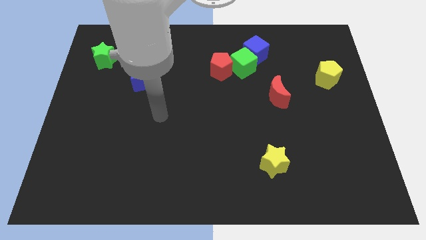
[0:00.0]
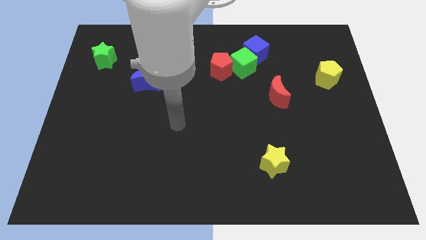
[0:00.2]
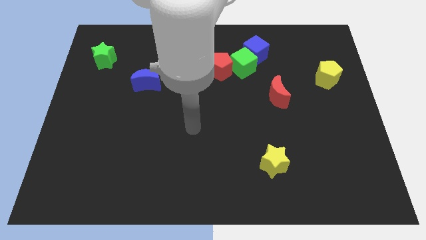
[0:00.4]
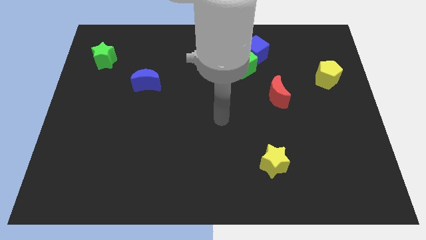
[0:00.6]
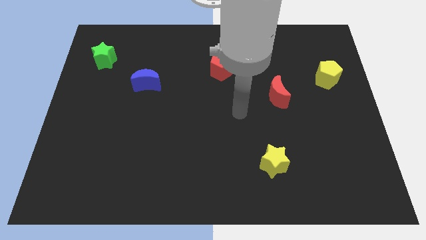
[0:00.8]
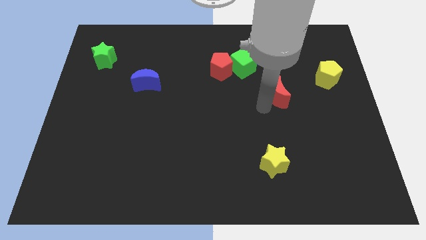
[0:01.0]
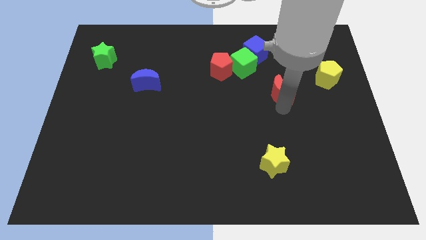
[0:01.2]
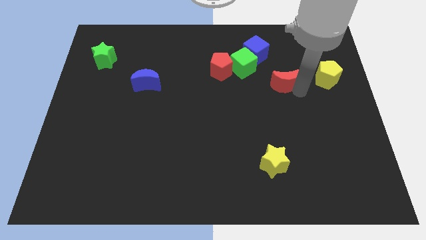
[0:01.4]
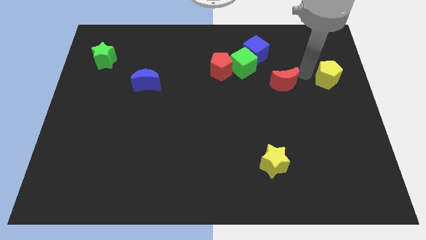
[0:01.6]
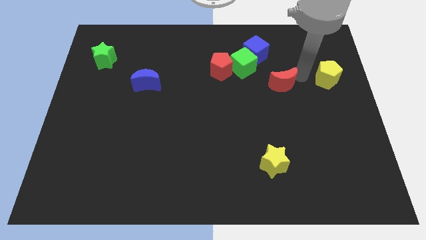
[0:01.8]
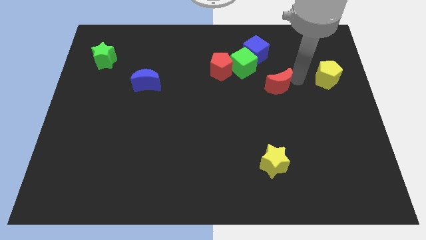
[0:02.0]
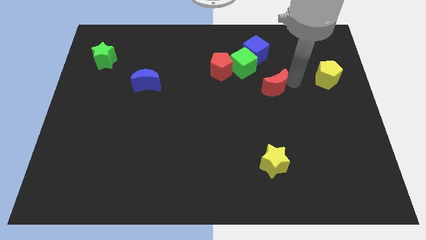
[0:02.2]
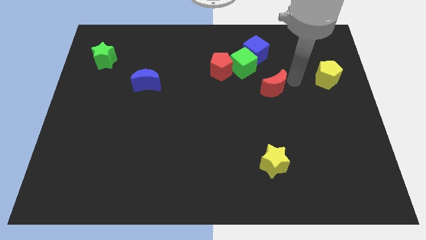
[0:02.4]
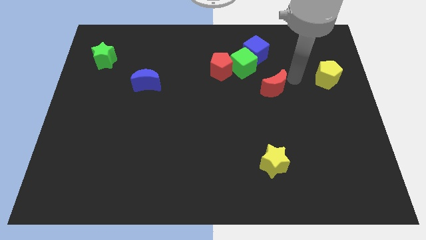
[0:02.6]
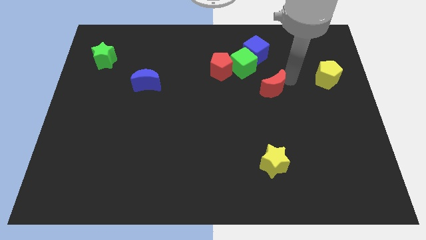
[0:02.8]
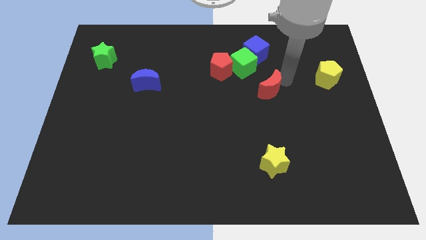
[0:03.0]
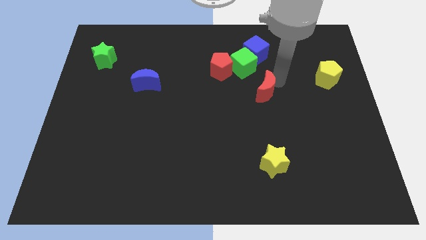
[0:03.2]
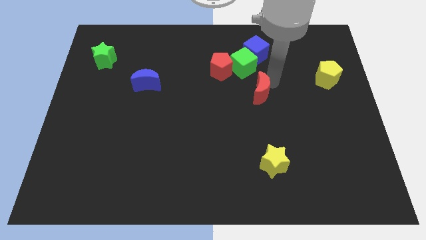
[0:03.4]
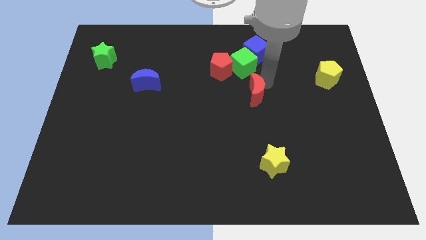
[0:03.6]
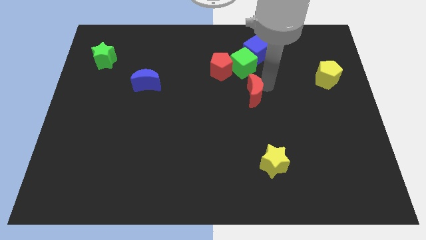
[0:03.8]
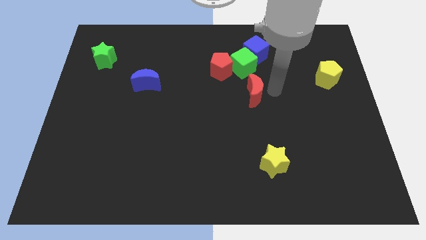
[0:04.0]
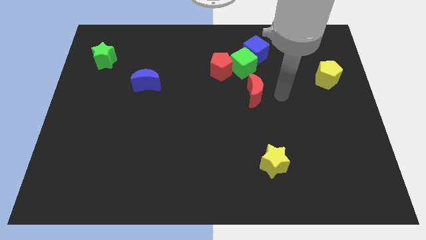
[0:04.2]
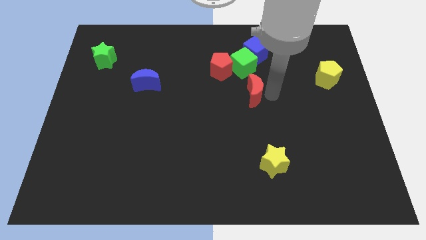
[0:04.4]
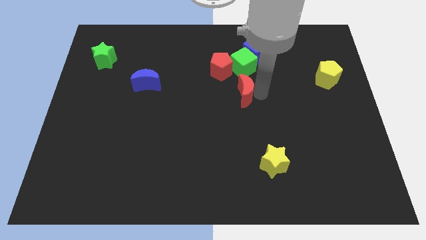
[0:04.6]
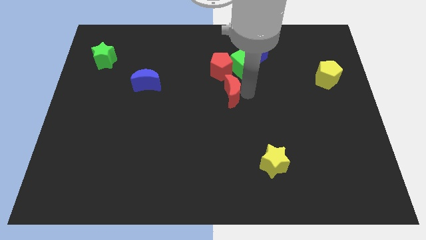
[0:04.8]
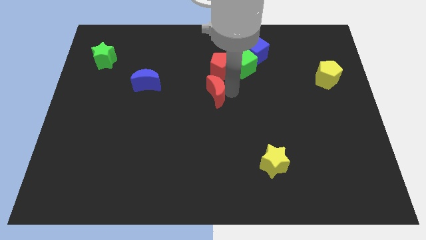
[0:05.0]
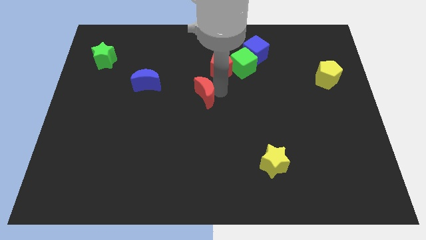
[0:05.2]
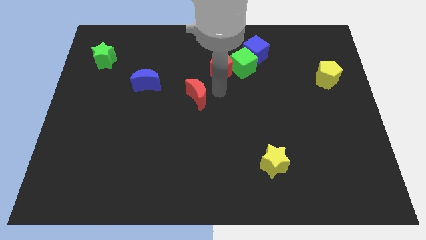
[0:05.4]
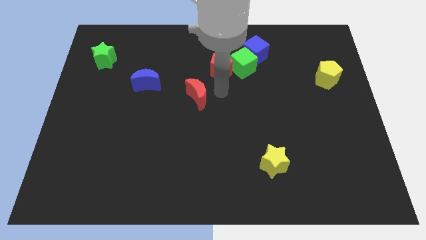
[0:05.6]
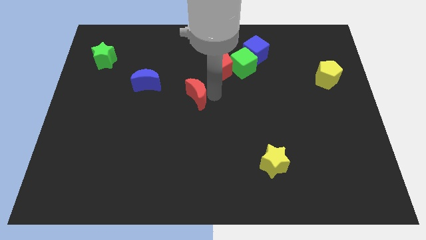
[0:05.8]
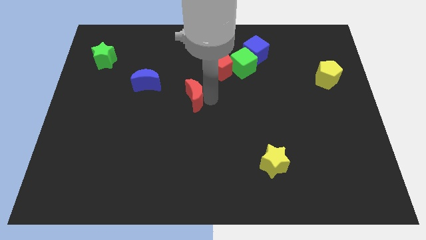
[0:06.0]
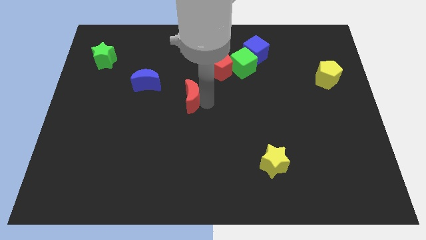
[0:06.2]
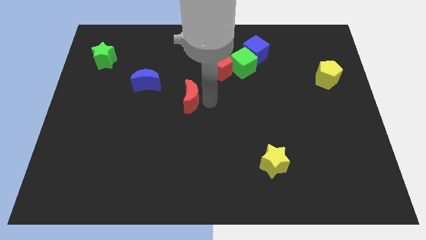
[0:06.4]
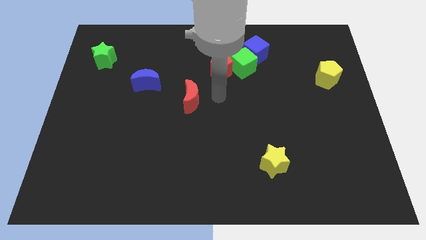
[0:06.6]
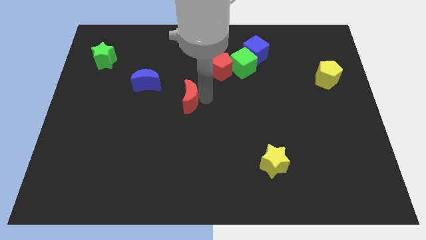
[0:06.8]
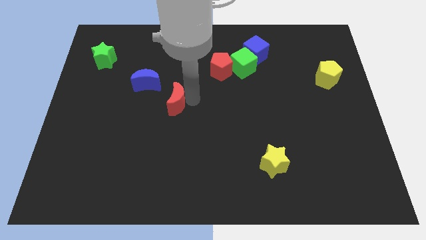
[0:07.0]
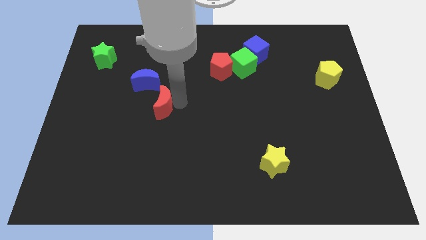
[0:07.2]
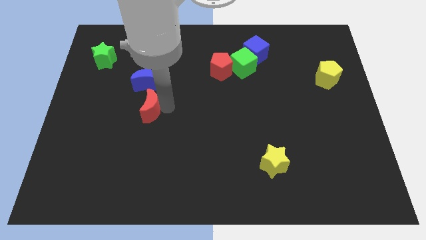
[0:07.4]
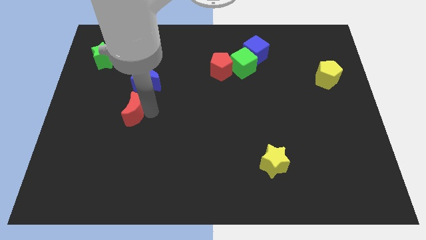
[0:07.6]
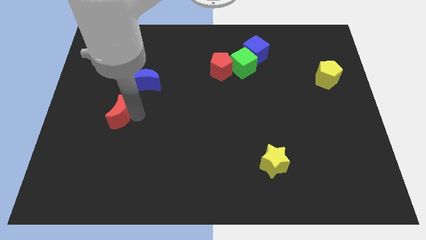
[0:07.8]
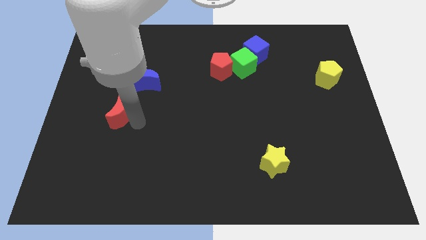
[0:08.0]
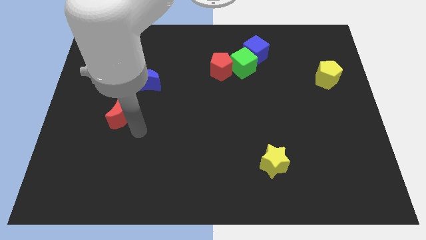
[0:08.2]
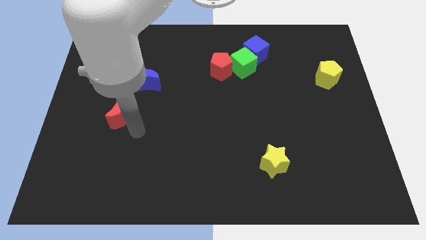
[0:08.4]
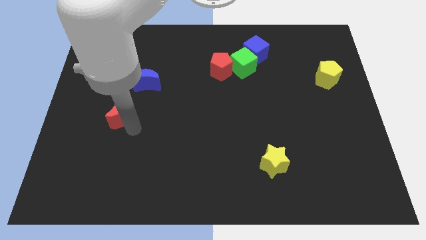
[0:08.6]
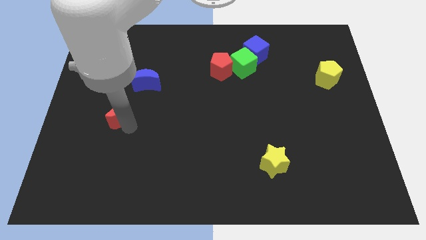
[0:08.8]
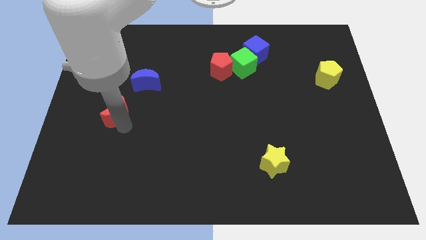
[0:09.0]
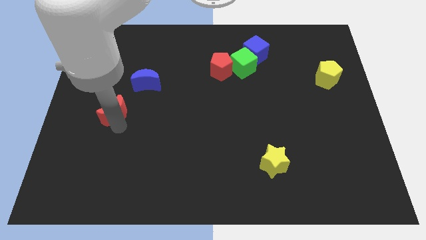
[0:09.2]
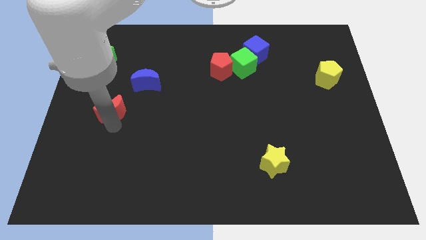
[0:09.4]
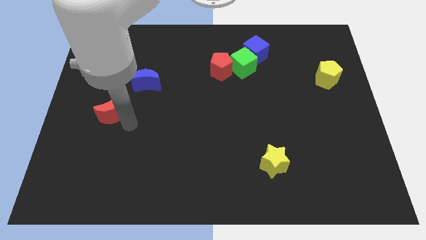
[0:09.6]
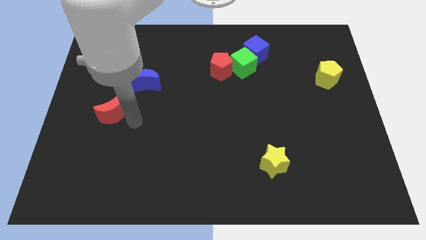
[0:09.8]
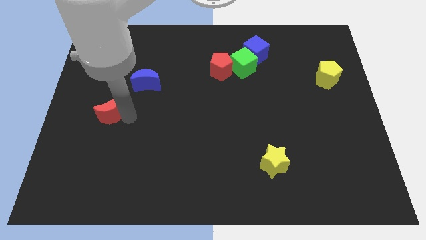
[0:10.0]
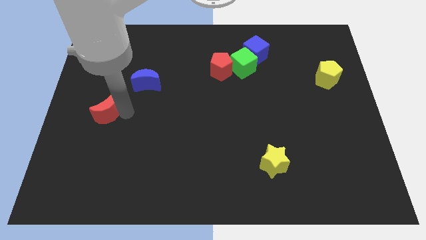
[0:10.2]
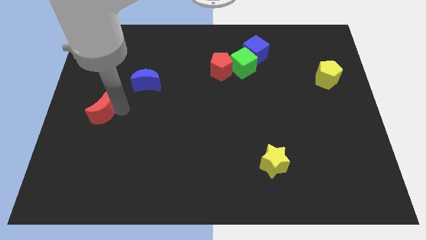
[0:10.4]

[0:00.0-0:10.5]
slide the red moon to the left side of the board

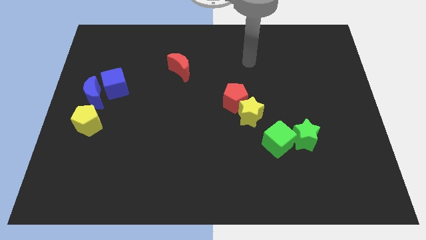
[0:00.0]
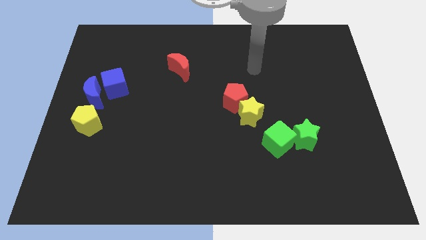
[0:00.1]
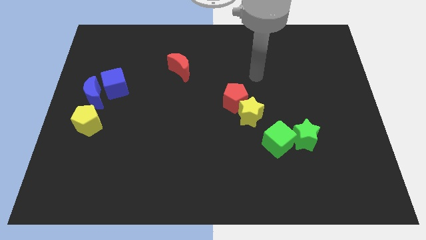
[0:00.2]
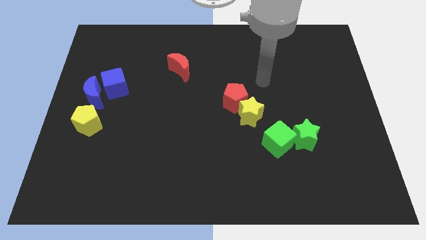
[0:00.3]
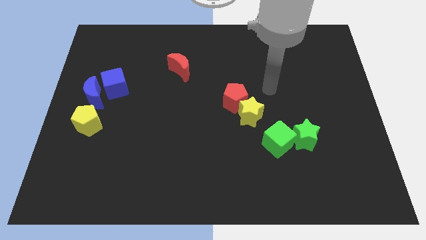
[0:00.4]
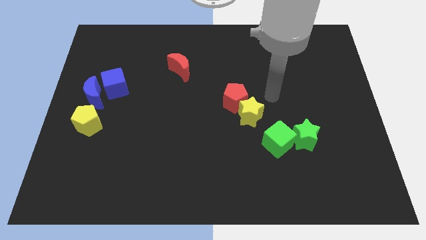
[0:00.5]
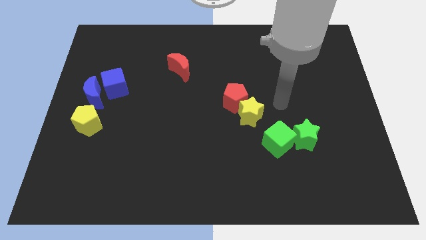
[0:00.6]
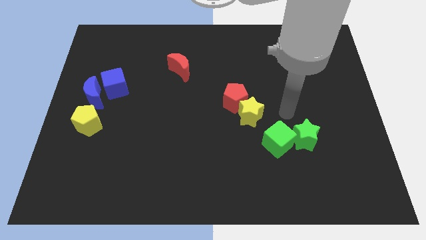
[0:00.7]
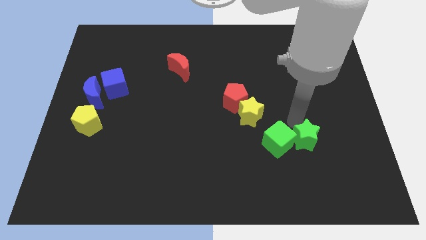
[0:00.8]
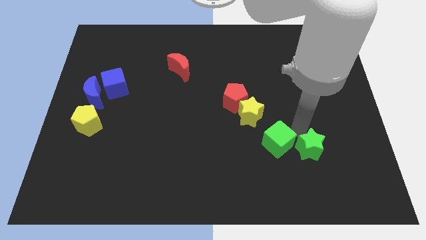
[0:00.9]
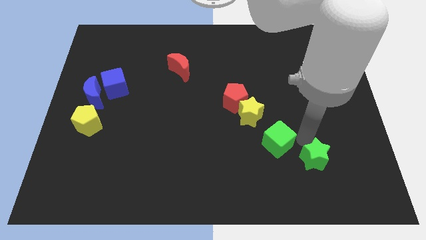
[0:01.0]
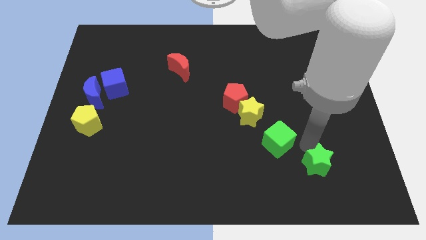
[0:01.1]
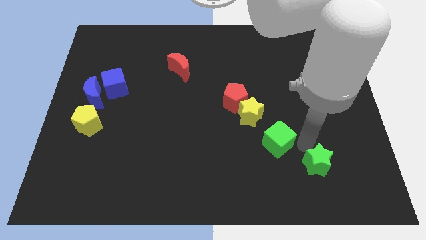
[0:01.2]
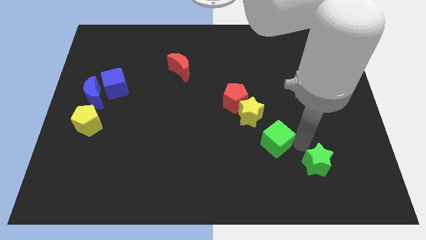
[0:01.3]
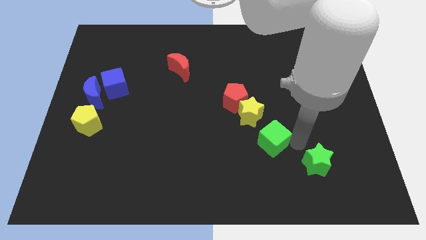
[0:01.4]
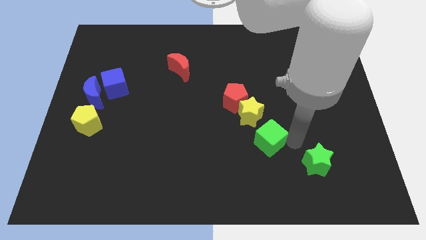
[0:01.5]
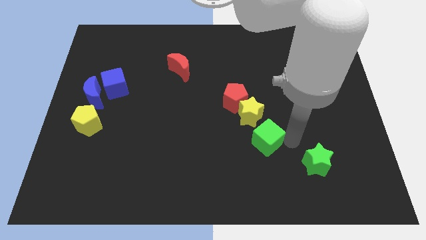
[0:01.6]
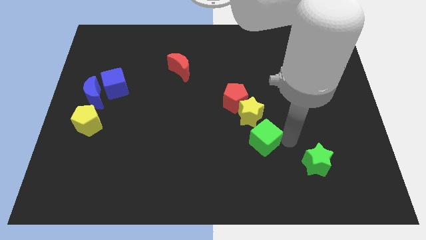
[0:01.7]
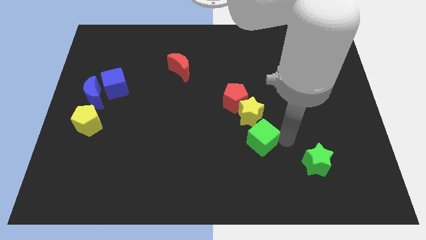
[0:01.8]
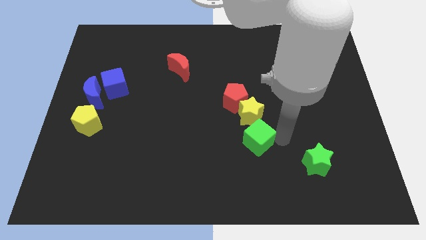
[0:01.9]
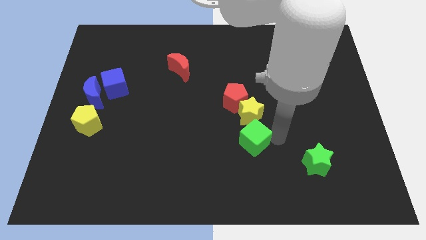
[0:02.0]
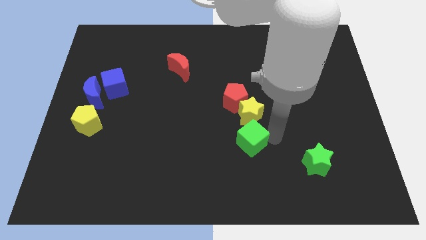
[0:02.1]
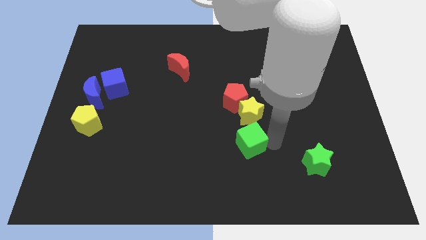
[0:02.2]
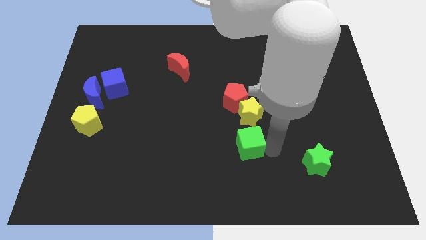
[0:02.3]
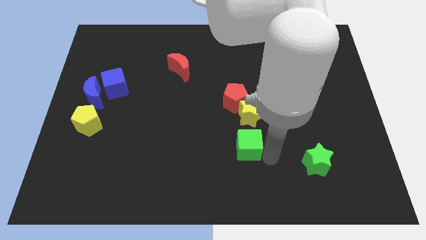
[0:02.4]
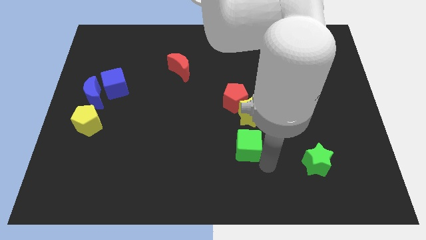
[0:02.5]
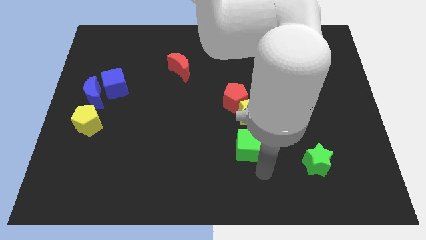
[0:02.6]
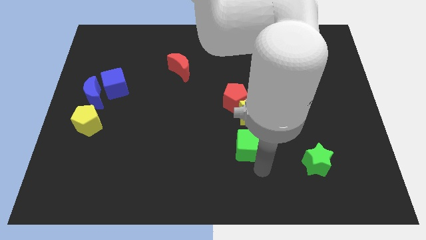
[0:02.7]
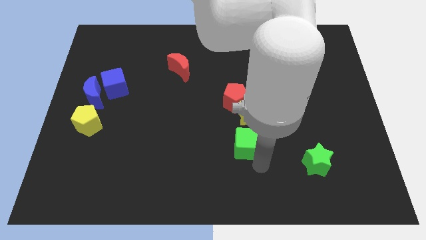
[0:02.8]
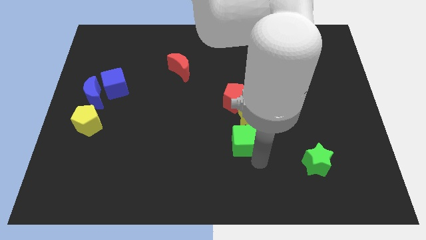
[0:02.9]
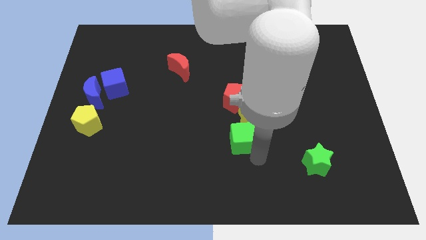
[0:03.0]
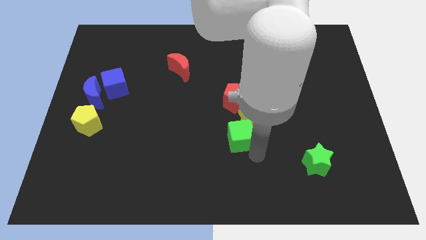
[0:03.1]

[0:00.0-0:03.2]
put the green cube to the center
